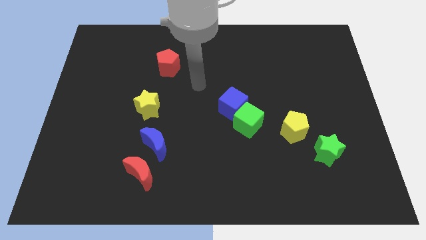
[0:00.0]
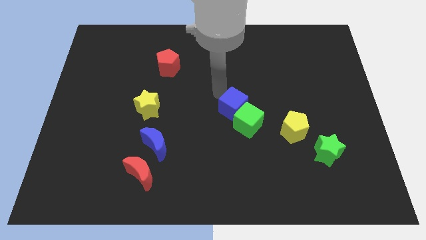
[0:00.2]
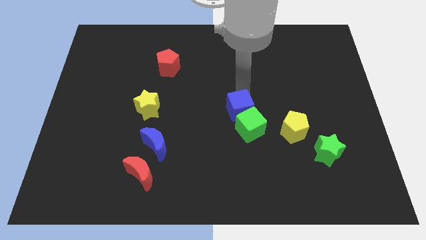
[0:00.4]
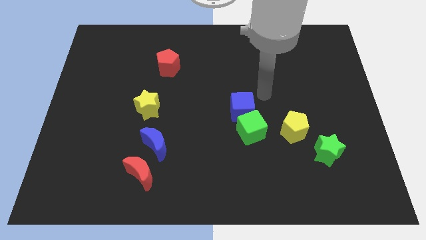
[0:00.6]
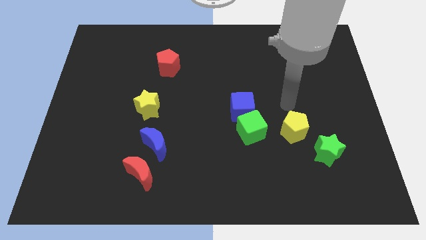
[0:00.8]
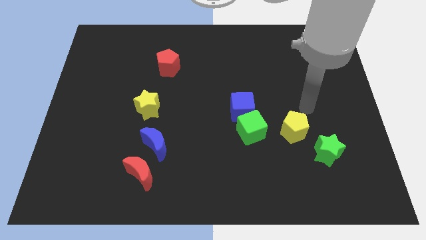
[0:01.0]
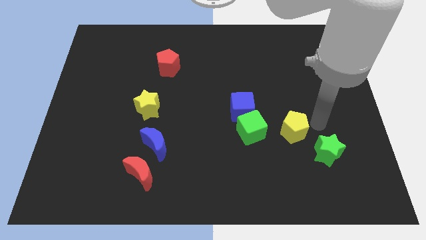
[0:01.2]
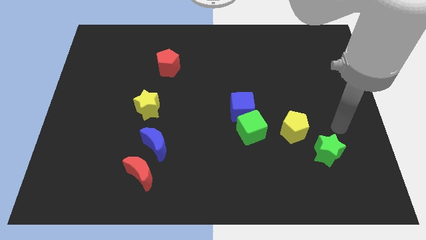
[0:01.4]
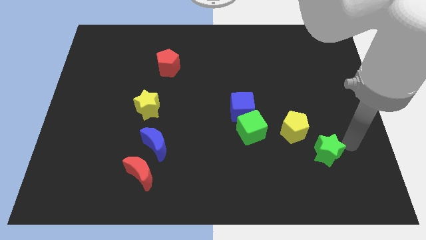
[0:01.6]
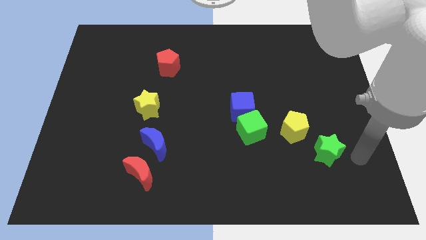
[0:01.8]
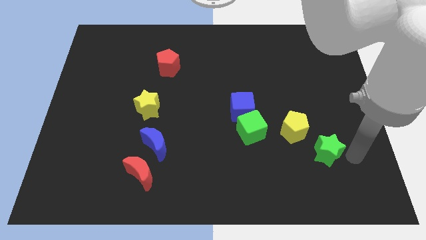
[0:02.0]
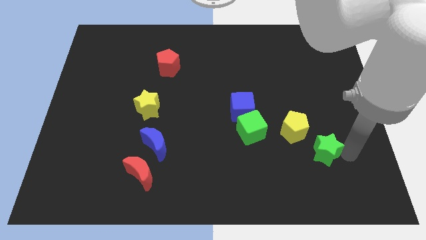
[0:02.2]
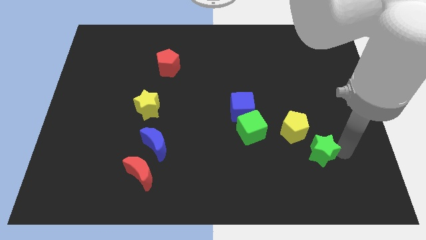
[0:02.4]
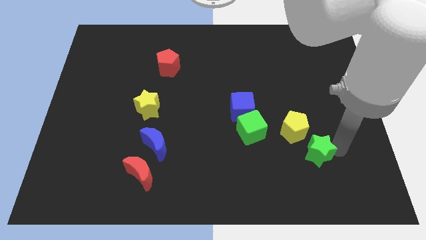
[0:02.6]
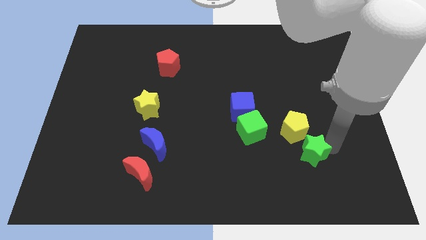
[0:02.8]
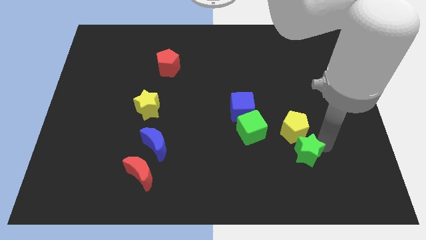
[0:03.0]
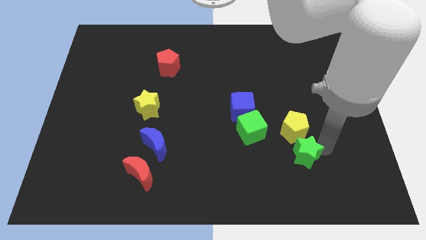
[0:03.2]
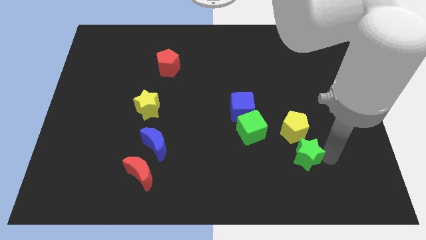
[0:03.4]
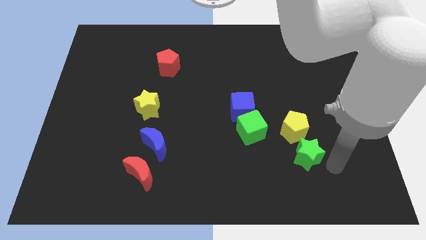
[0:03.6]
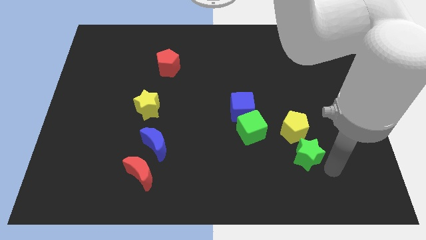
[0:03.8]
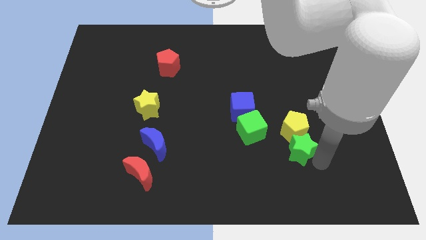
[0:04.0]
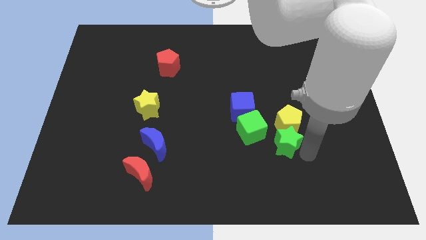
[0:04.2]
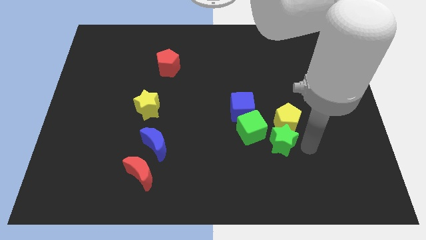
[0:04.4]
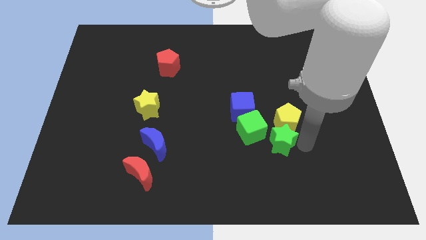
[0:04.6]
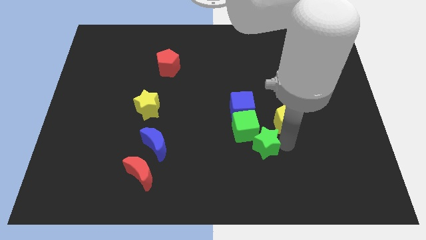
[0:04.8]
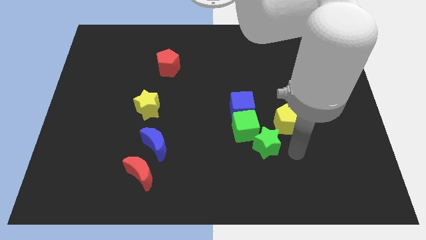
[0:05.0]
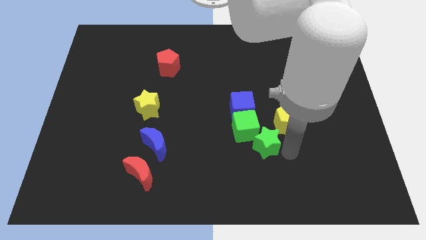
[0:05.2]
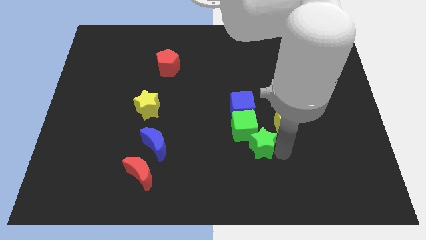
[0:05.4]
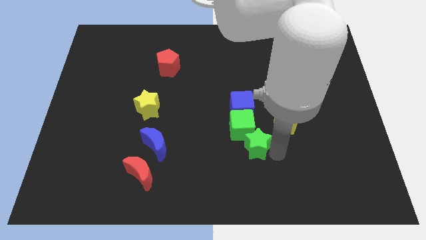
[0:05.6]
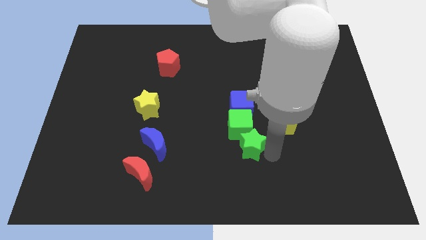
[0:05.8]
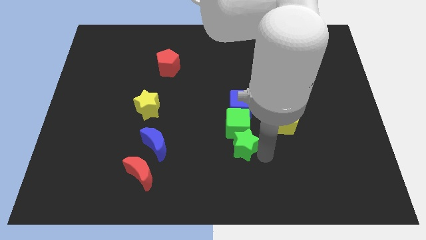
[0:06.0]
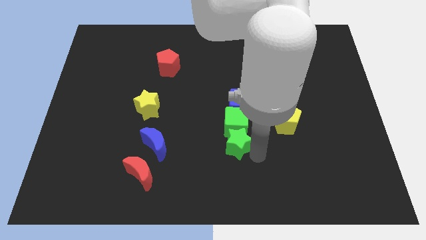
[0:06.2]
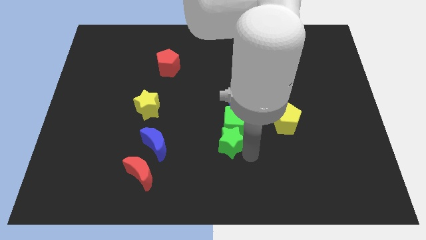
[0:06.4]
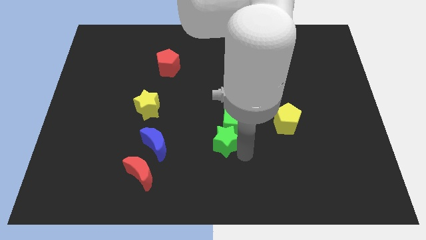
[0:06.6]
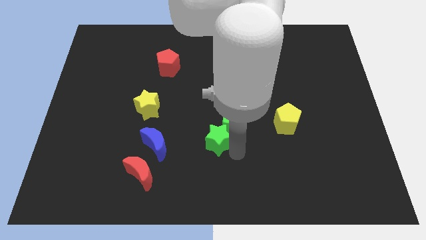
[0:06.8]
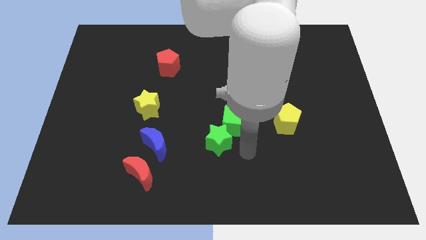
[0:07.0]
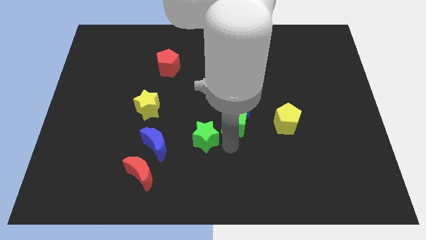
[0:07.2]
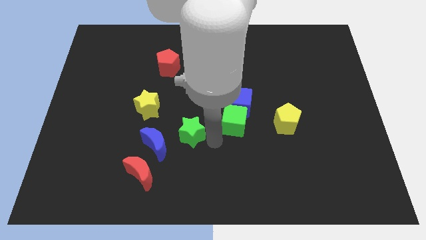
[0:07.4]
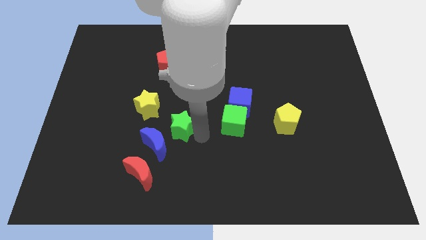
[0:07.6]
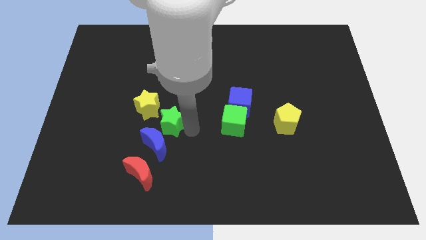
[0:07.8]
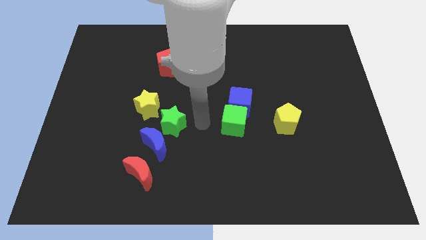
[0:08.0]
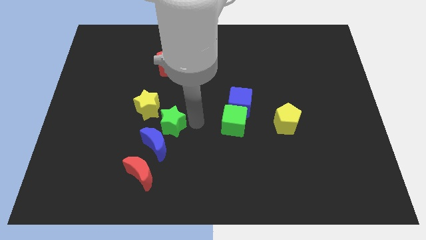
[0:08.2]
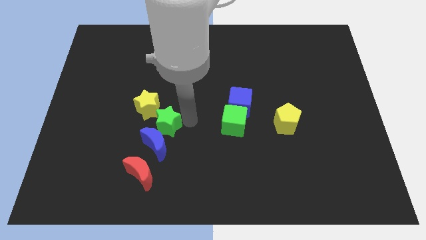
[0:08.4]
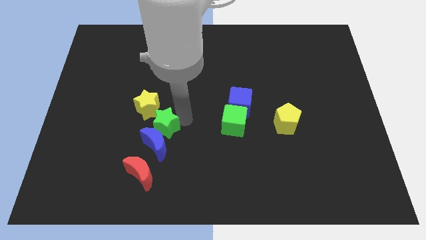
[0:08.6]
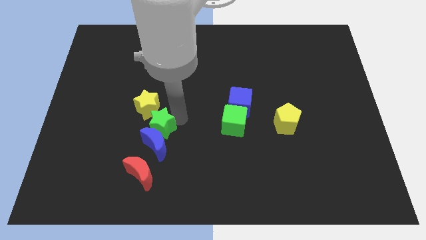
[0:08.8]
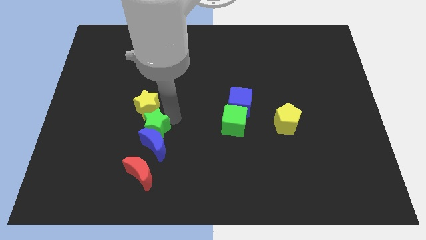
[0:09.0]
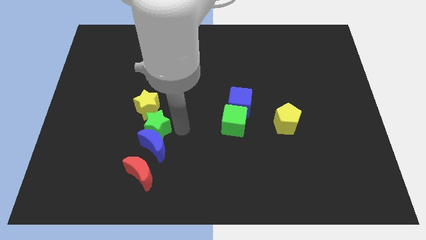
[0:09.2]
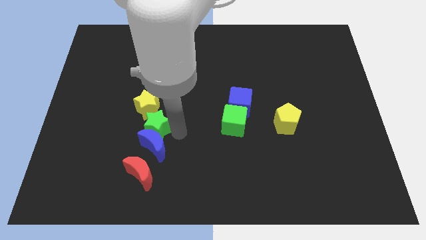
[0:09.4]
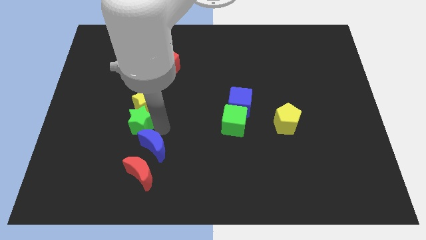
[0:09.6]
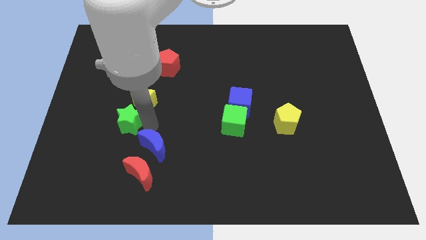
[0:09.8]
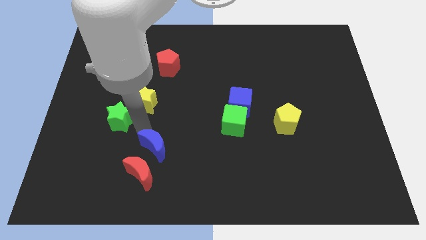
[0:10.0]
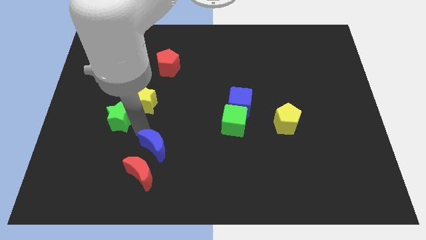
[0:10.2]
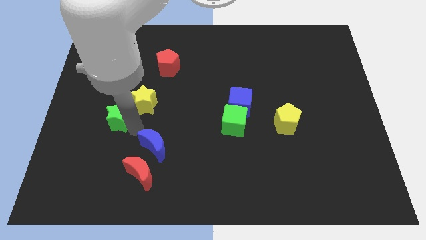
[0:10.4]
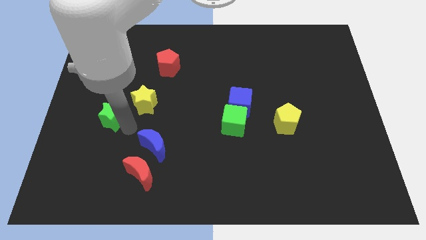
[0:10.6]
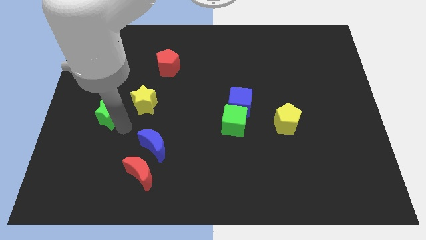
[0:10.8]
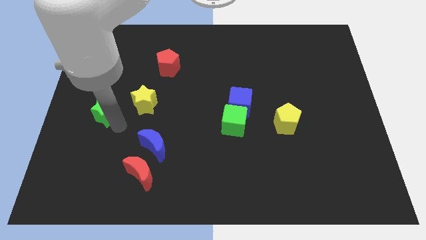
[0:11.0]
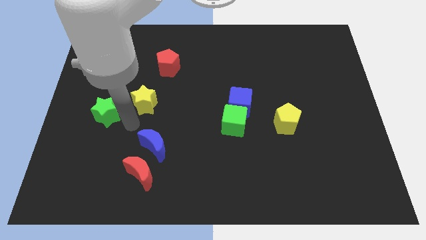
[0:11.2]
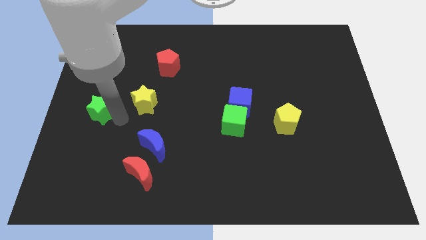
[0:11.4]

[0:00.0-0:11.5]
move the green star to the left side
